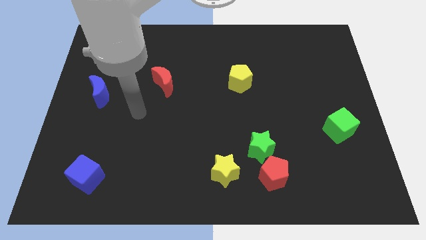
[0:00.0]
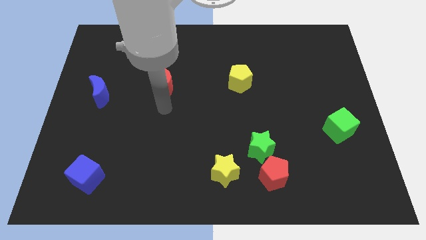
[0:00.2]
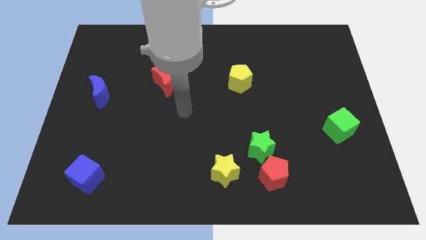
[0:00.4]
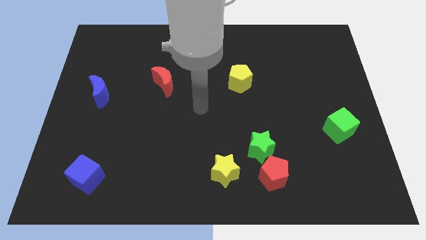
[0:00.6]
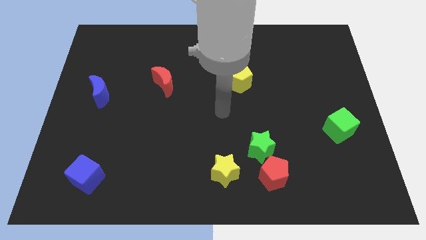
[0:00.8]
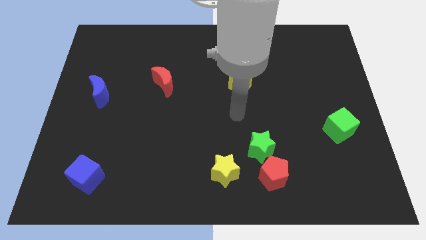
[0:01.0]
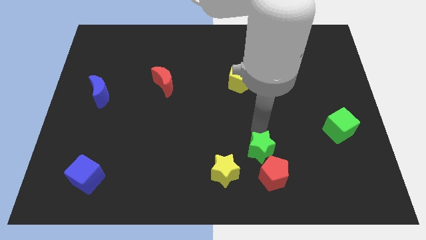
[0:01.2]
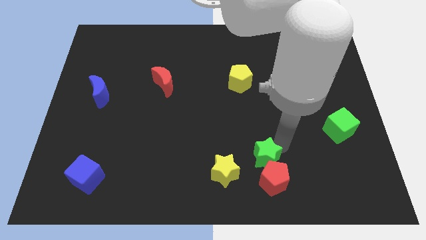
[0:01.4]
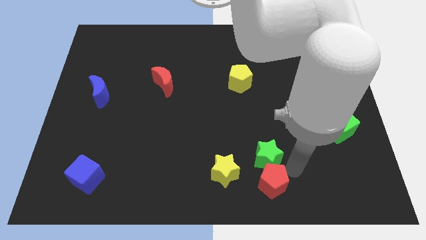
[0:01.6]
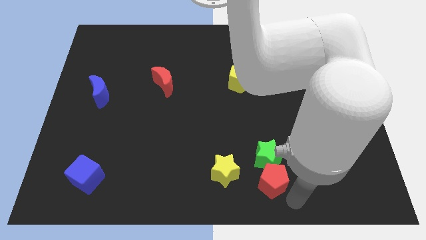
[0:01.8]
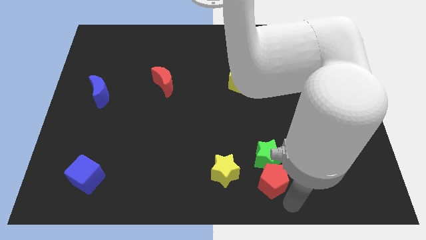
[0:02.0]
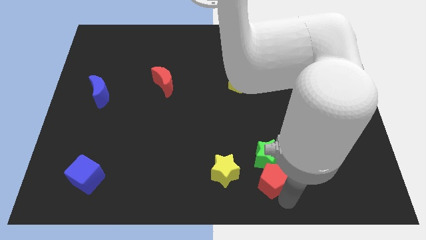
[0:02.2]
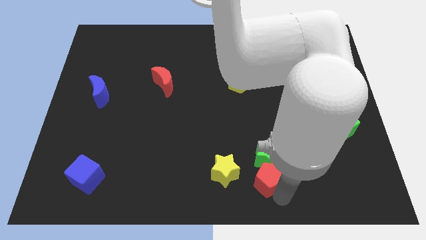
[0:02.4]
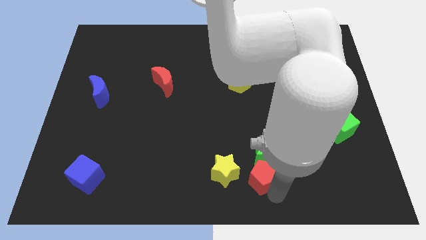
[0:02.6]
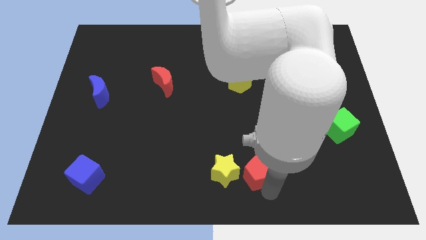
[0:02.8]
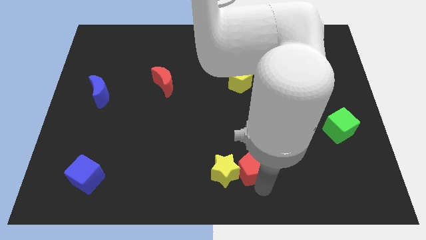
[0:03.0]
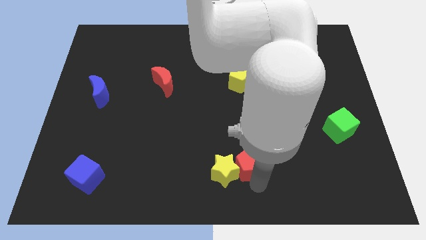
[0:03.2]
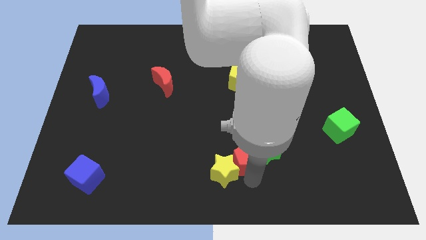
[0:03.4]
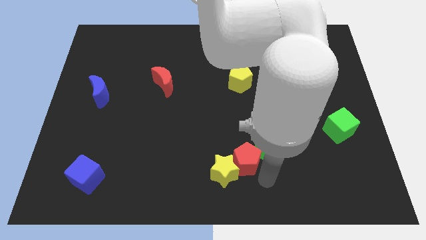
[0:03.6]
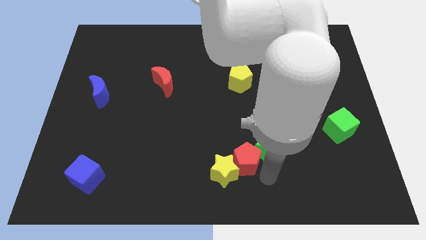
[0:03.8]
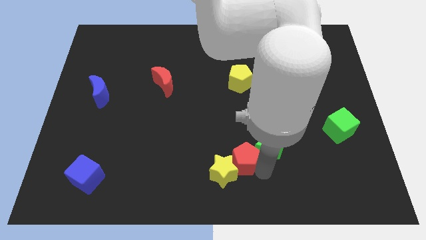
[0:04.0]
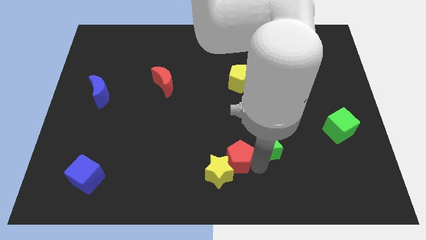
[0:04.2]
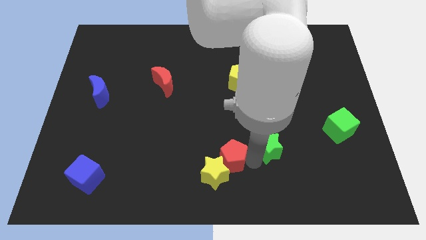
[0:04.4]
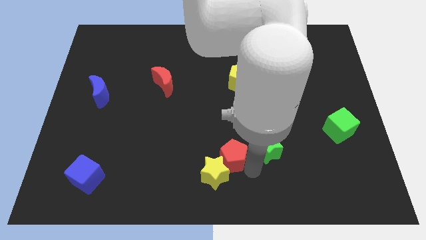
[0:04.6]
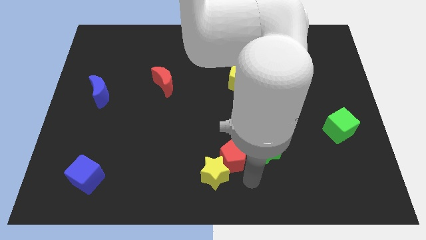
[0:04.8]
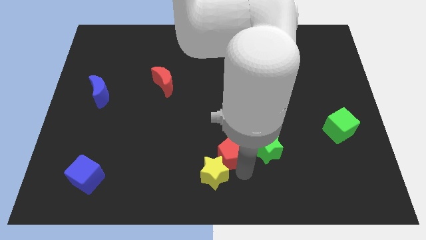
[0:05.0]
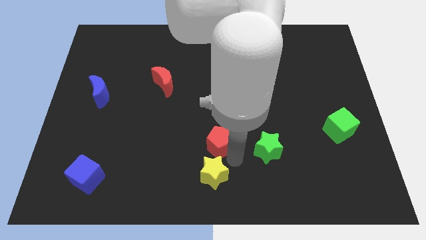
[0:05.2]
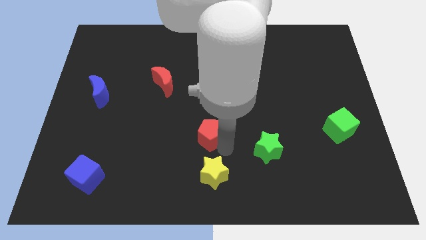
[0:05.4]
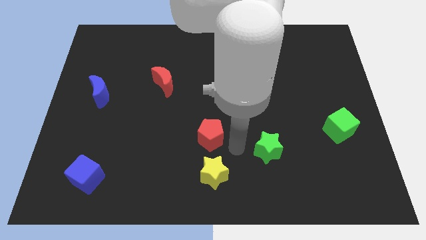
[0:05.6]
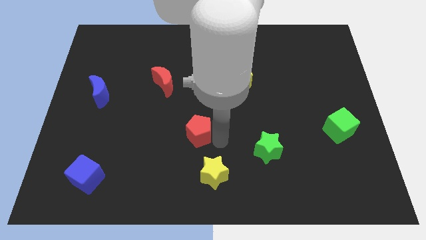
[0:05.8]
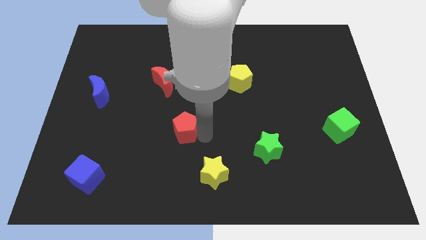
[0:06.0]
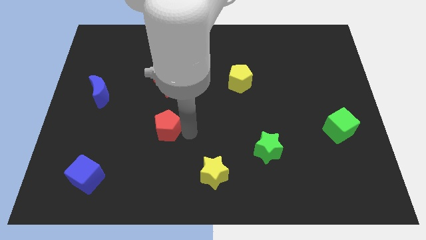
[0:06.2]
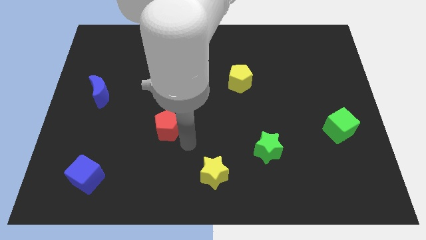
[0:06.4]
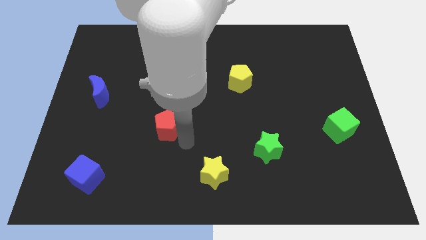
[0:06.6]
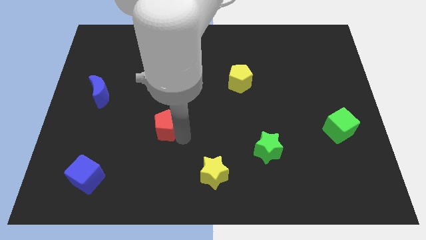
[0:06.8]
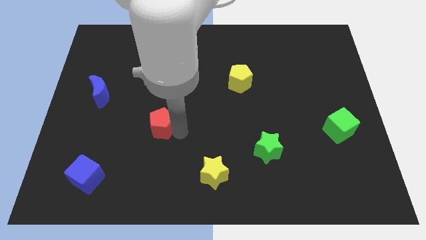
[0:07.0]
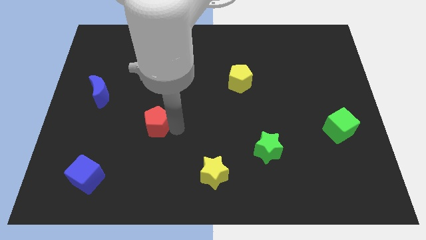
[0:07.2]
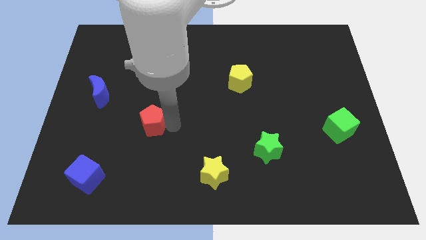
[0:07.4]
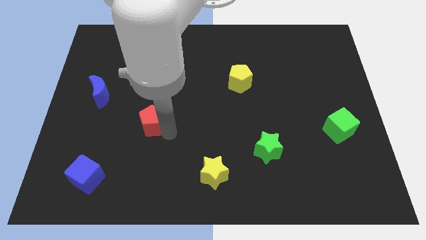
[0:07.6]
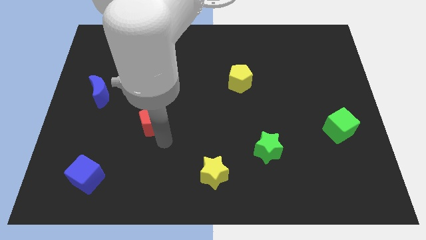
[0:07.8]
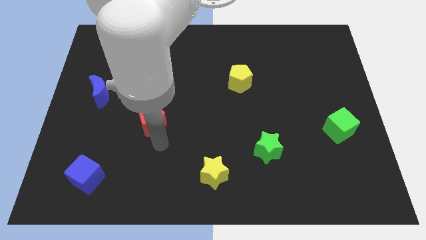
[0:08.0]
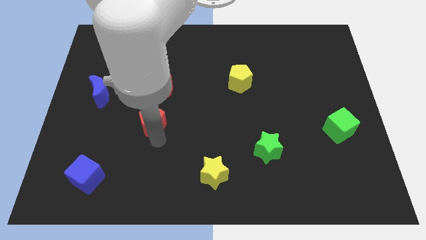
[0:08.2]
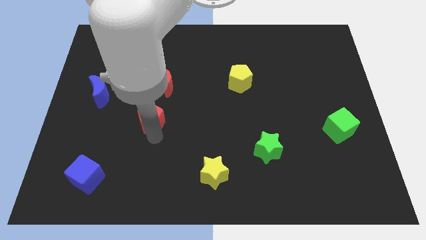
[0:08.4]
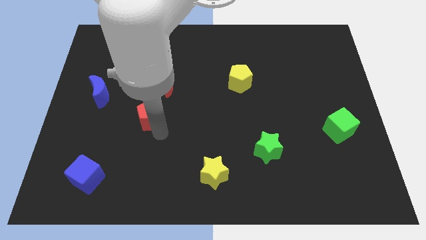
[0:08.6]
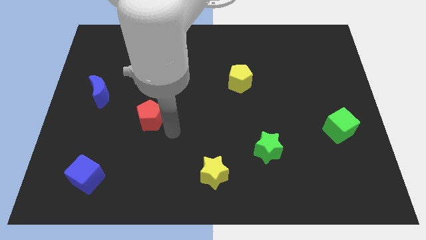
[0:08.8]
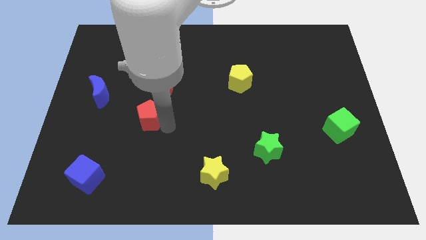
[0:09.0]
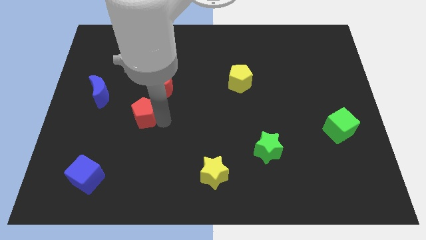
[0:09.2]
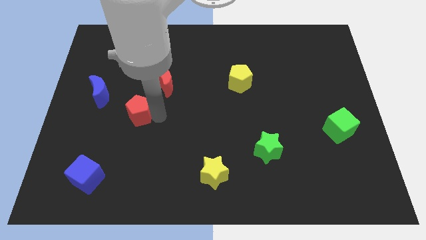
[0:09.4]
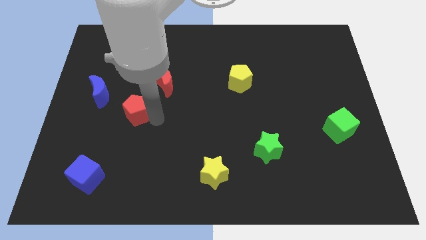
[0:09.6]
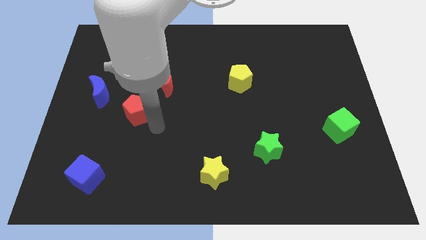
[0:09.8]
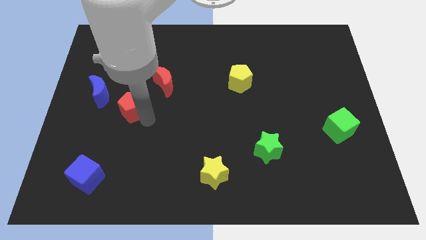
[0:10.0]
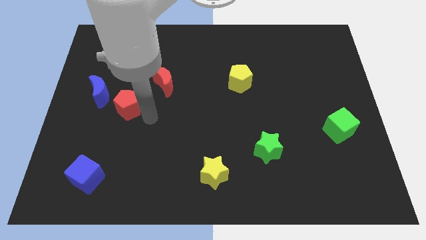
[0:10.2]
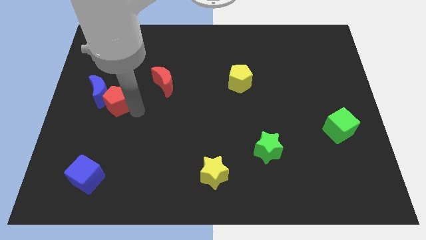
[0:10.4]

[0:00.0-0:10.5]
push the red pentagon close to the blue moon
